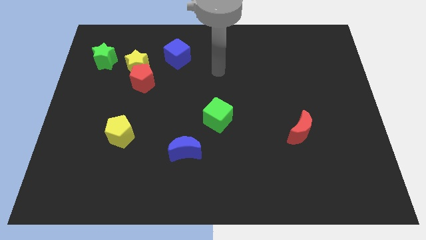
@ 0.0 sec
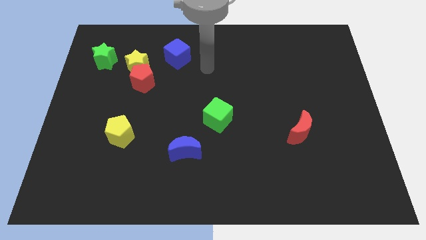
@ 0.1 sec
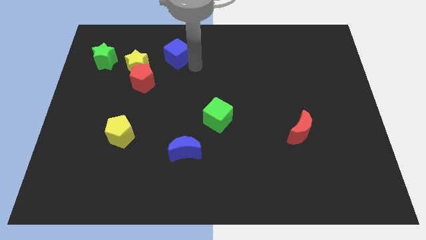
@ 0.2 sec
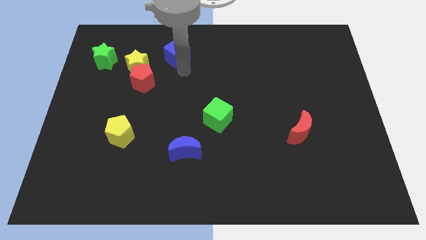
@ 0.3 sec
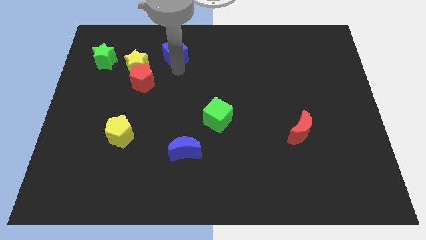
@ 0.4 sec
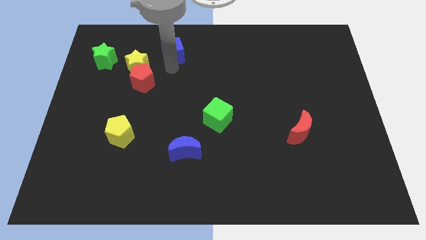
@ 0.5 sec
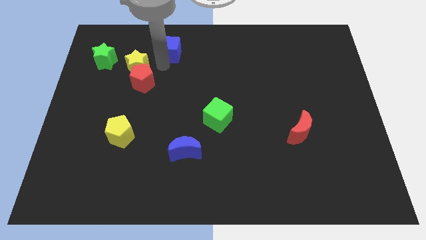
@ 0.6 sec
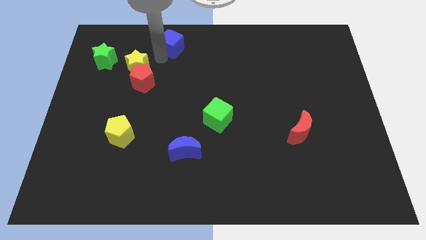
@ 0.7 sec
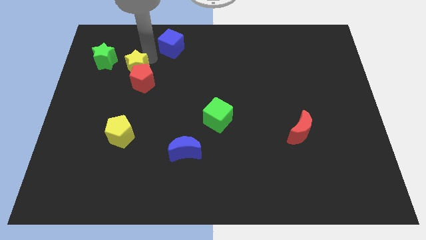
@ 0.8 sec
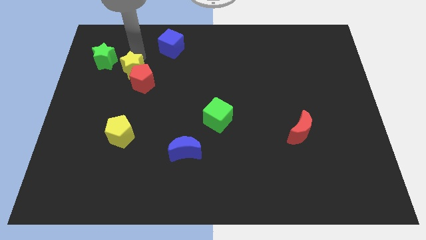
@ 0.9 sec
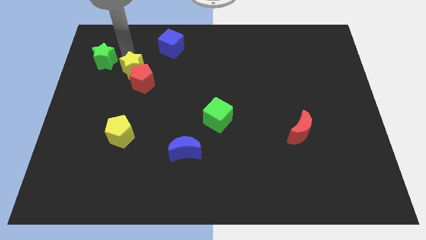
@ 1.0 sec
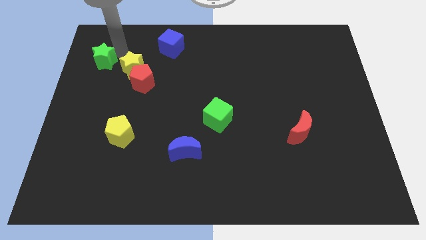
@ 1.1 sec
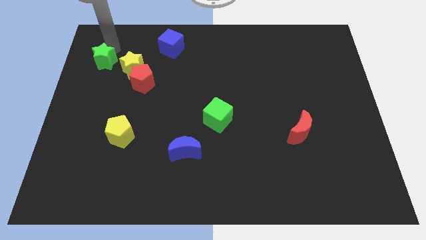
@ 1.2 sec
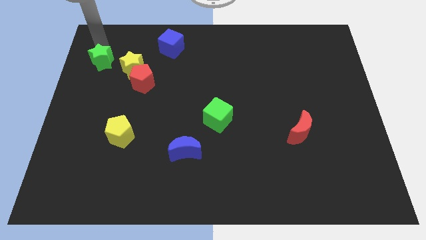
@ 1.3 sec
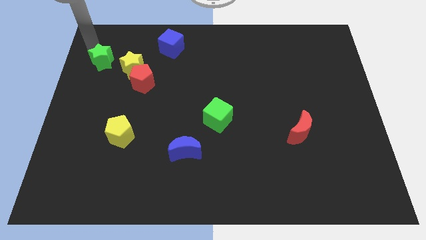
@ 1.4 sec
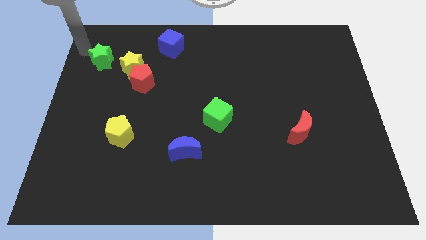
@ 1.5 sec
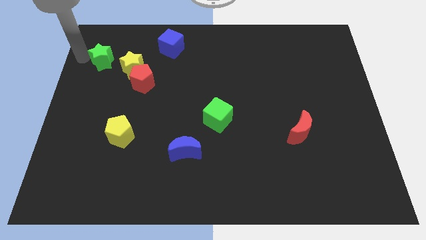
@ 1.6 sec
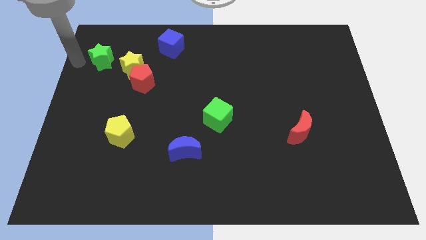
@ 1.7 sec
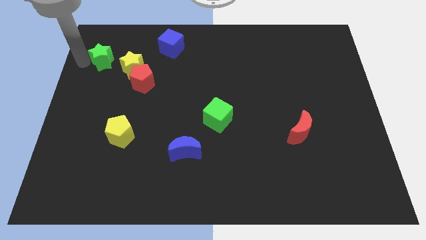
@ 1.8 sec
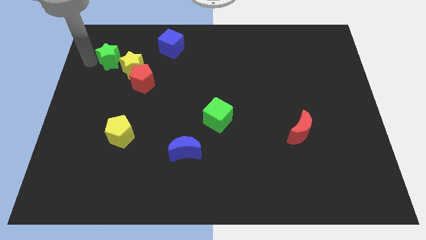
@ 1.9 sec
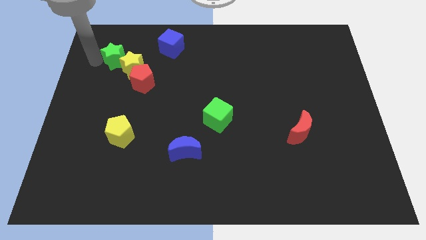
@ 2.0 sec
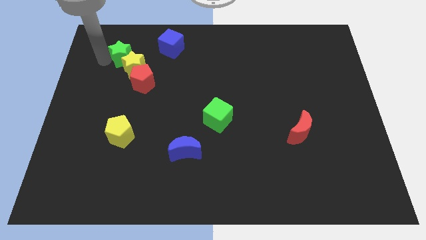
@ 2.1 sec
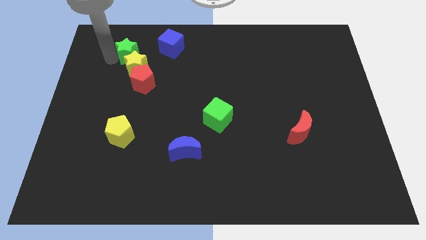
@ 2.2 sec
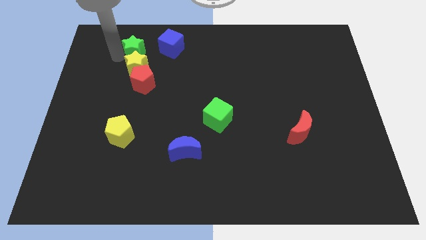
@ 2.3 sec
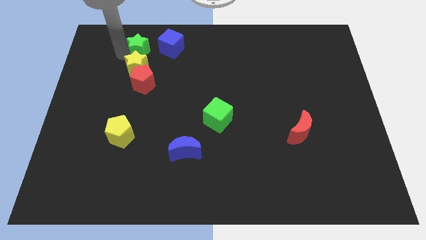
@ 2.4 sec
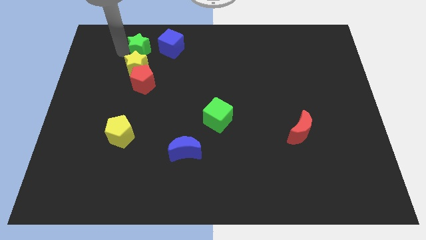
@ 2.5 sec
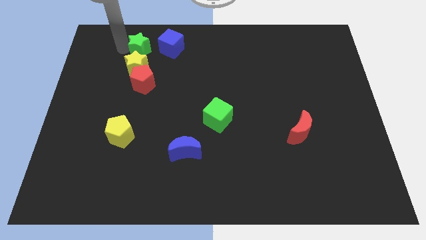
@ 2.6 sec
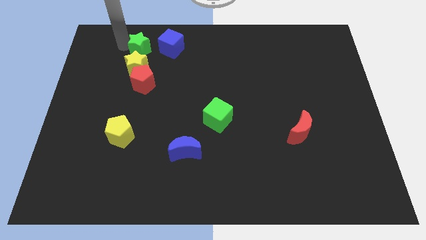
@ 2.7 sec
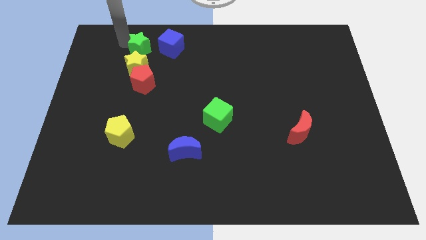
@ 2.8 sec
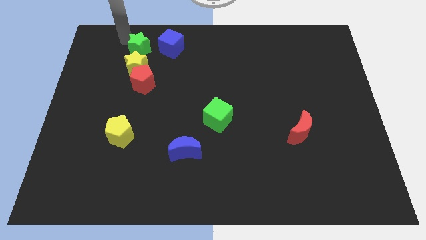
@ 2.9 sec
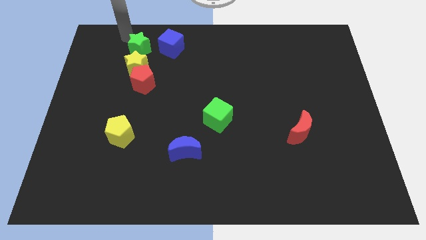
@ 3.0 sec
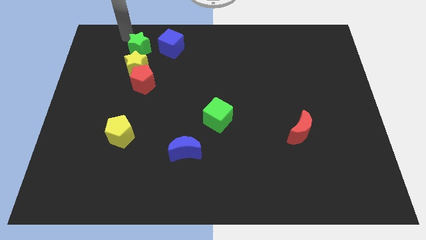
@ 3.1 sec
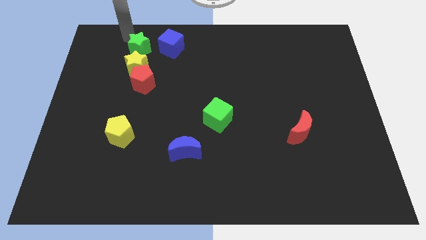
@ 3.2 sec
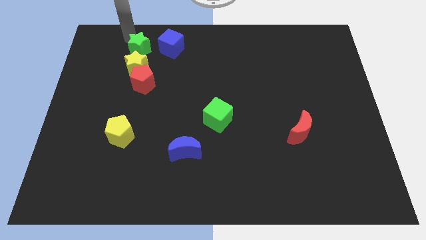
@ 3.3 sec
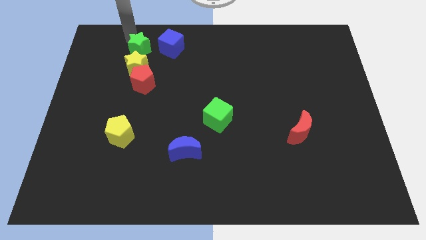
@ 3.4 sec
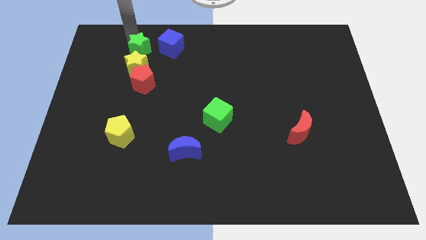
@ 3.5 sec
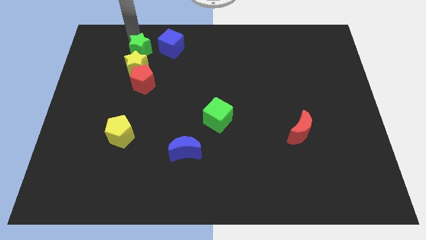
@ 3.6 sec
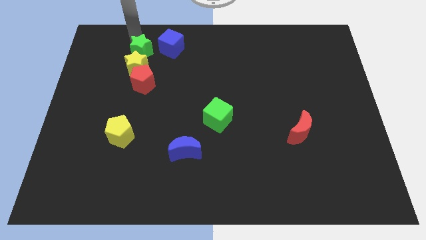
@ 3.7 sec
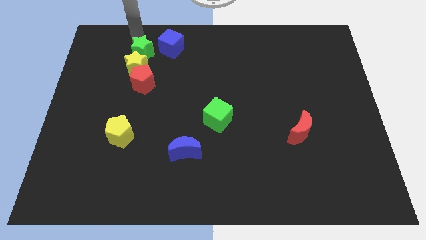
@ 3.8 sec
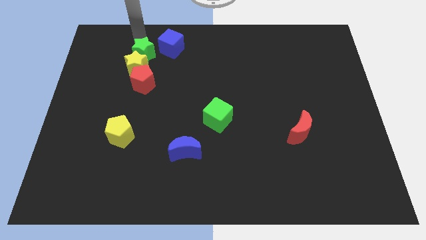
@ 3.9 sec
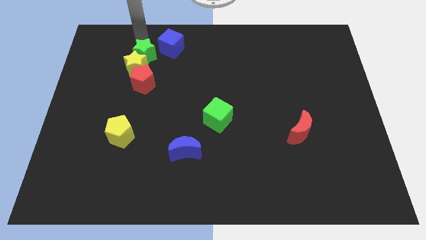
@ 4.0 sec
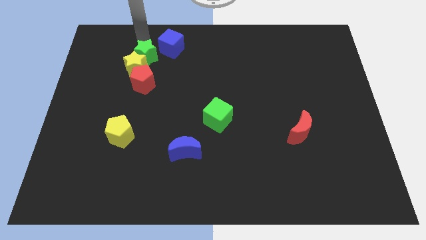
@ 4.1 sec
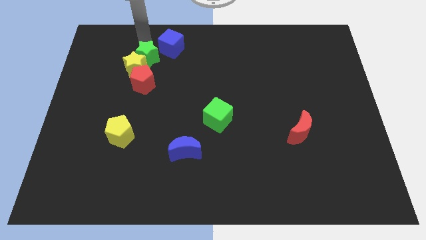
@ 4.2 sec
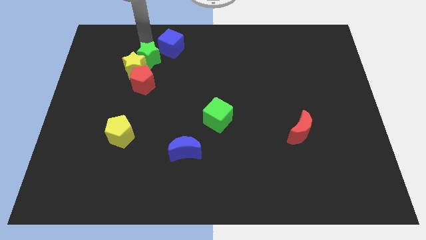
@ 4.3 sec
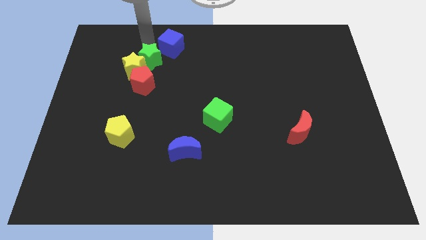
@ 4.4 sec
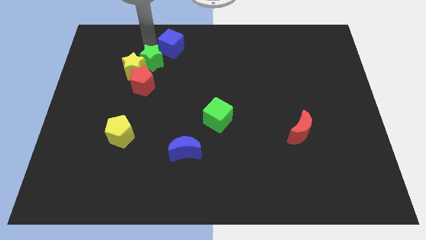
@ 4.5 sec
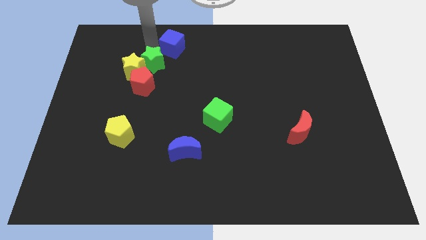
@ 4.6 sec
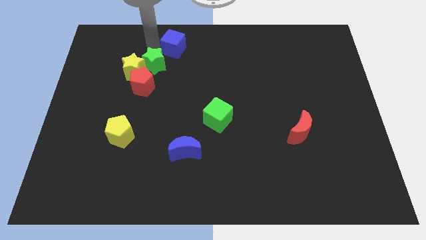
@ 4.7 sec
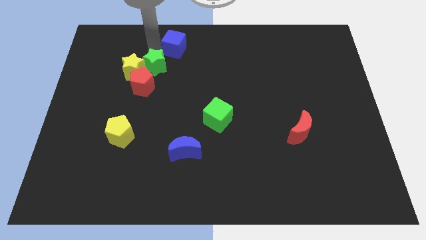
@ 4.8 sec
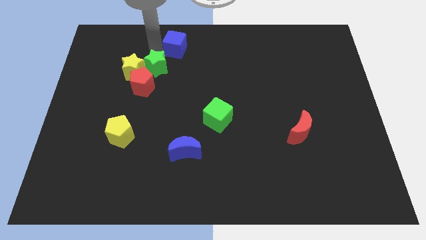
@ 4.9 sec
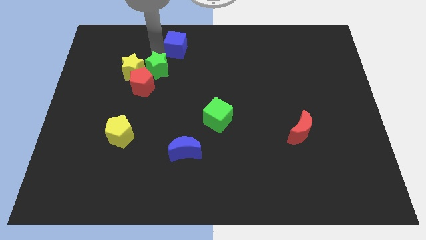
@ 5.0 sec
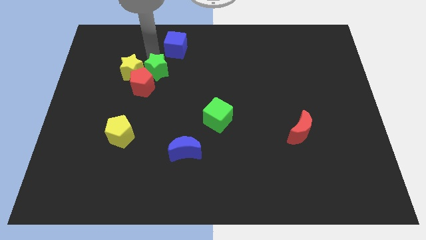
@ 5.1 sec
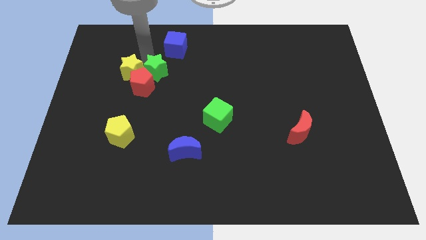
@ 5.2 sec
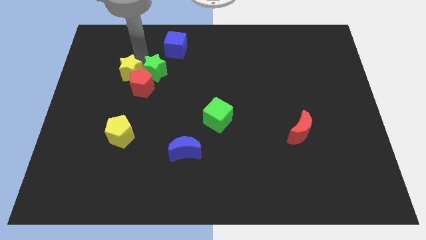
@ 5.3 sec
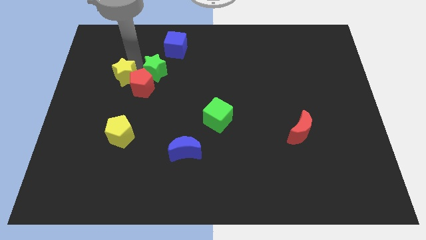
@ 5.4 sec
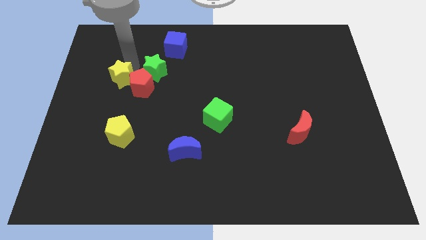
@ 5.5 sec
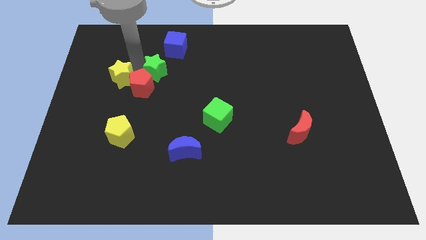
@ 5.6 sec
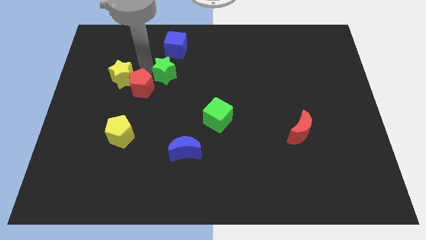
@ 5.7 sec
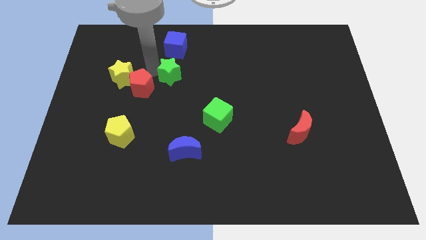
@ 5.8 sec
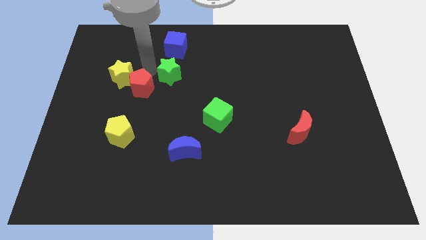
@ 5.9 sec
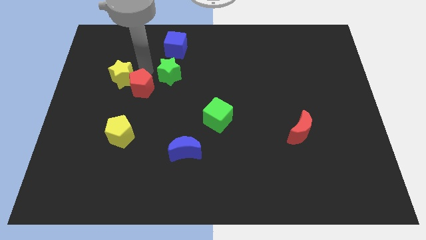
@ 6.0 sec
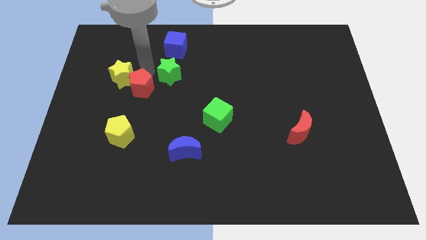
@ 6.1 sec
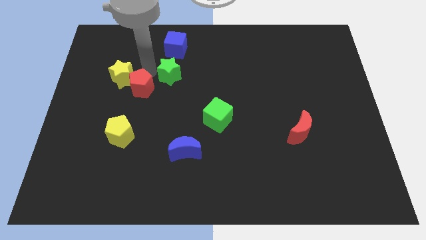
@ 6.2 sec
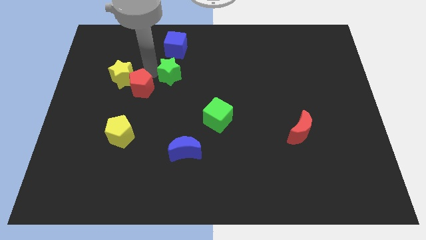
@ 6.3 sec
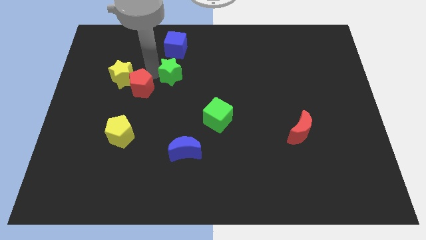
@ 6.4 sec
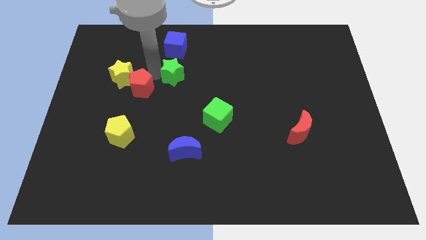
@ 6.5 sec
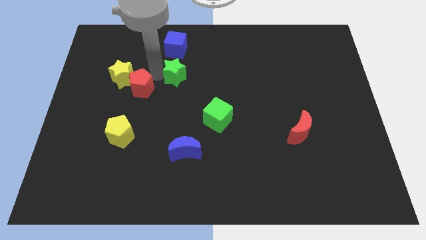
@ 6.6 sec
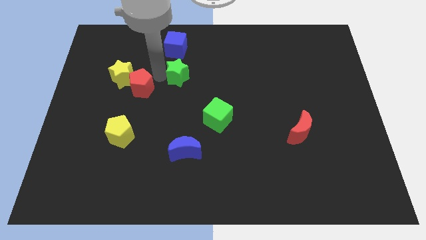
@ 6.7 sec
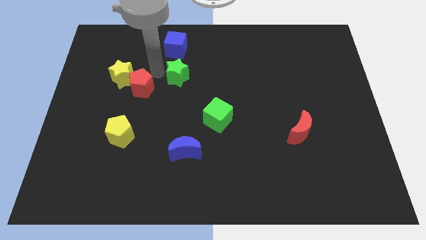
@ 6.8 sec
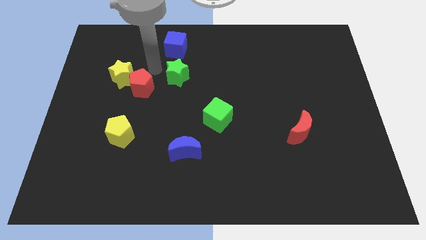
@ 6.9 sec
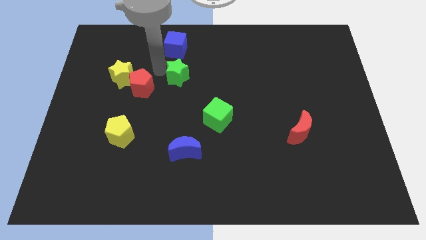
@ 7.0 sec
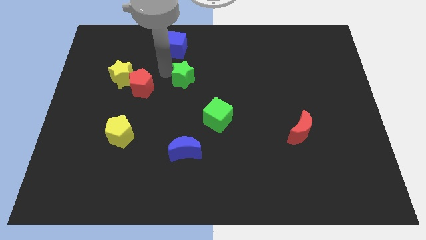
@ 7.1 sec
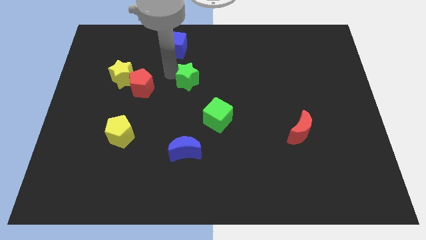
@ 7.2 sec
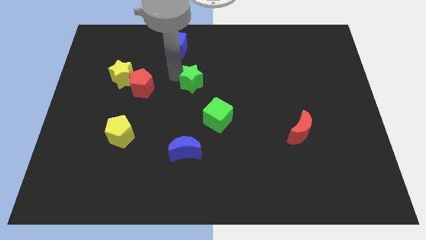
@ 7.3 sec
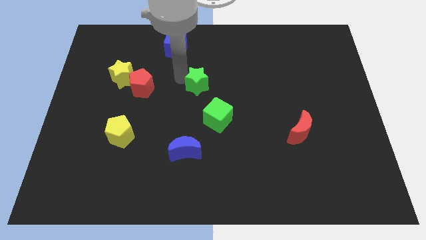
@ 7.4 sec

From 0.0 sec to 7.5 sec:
move the green star to the top side of the green cube
